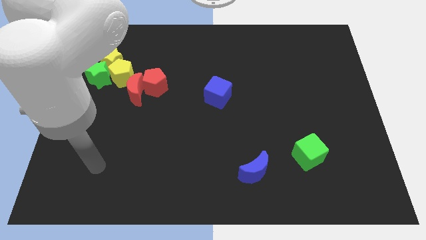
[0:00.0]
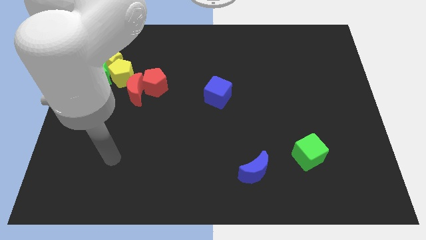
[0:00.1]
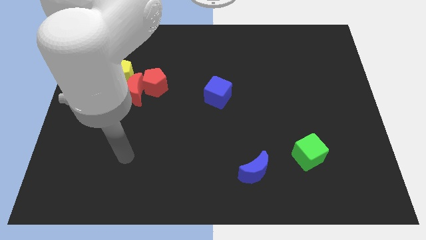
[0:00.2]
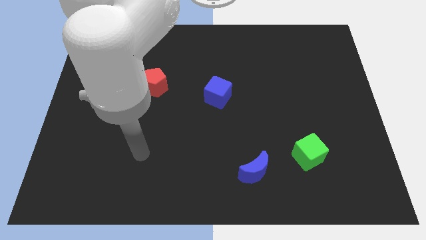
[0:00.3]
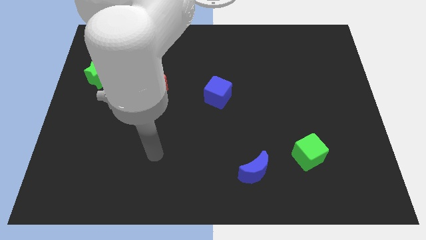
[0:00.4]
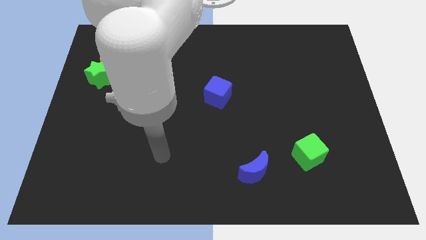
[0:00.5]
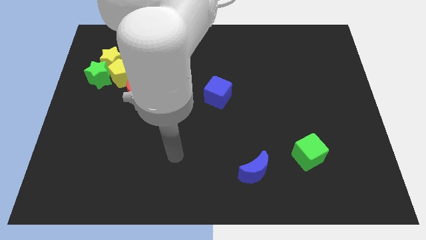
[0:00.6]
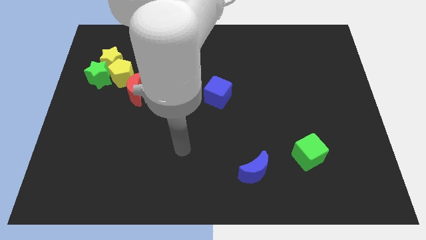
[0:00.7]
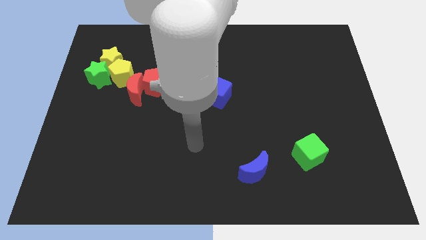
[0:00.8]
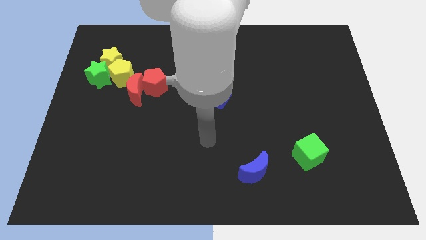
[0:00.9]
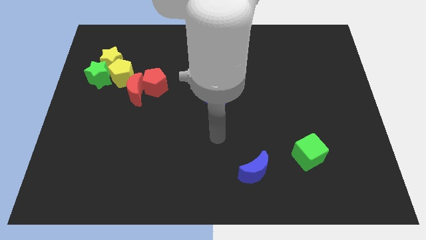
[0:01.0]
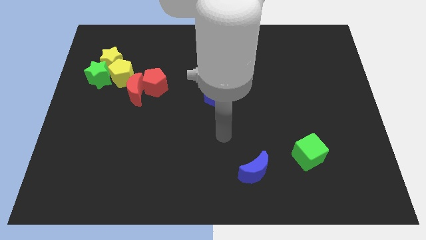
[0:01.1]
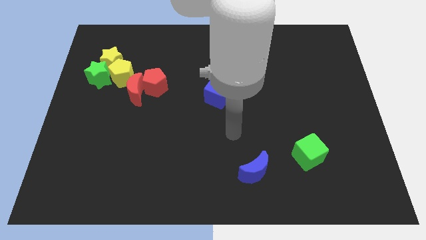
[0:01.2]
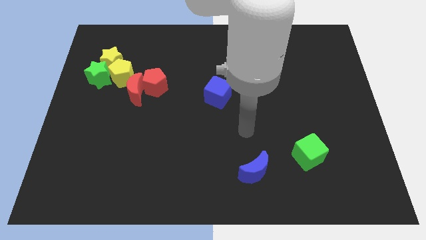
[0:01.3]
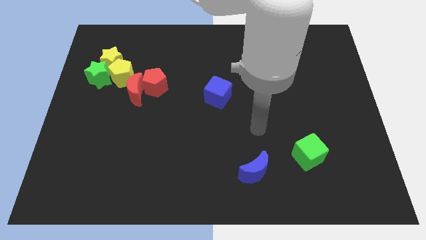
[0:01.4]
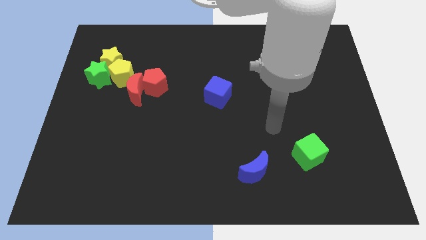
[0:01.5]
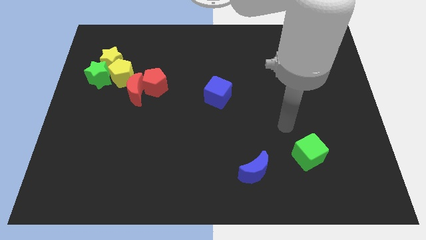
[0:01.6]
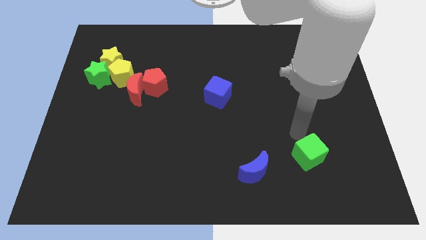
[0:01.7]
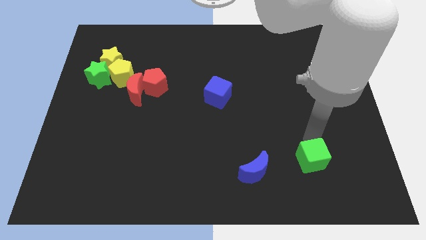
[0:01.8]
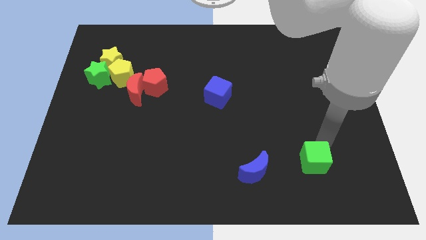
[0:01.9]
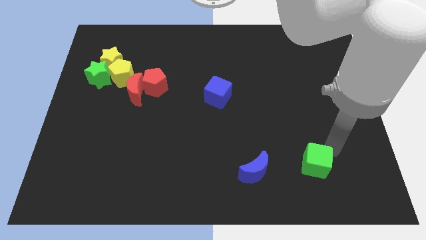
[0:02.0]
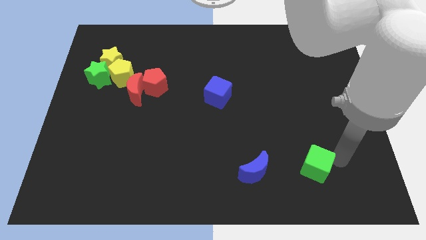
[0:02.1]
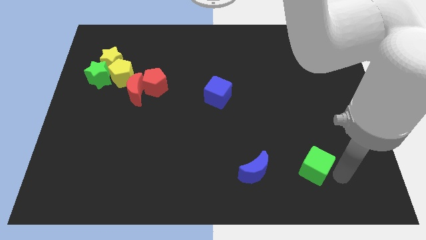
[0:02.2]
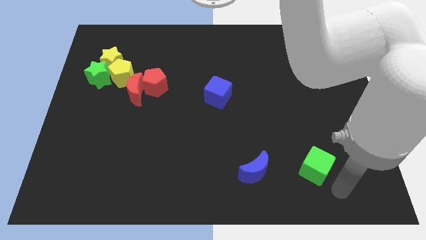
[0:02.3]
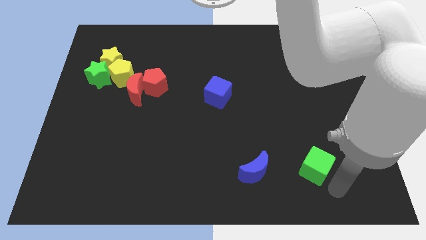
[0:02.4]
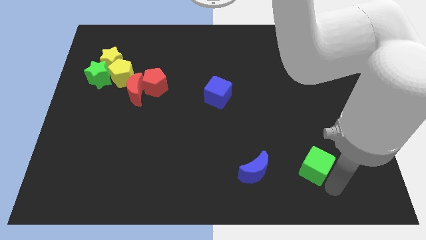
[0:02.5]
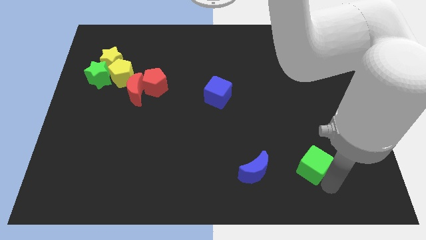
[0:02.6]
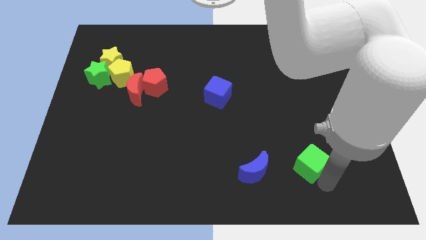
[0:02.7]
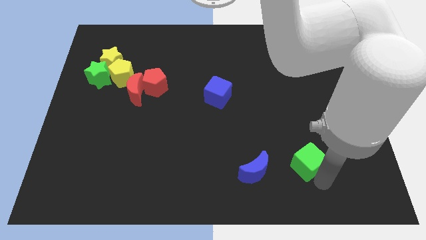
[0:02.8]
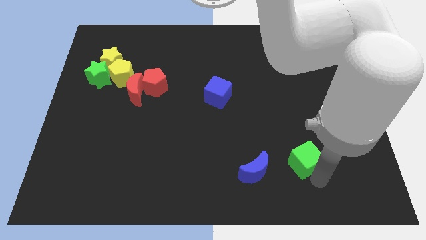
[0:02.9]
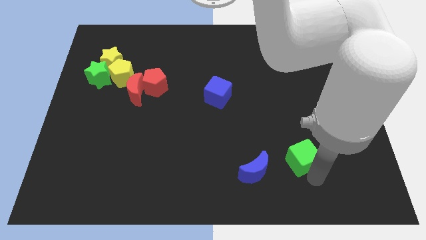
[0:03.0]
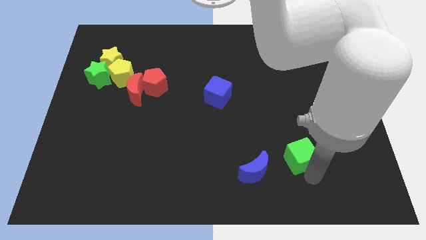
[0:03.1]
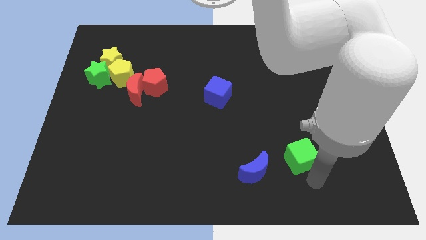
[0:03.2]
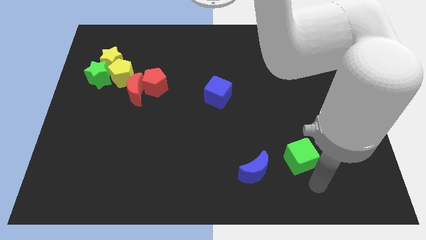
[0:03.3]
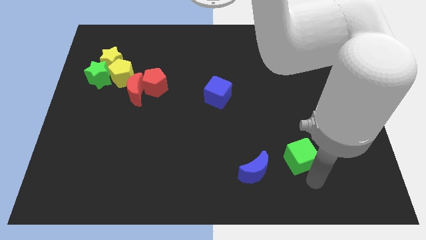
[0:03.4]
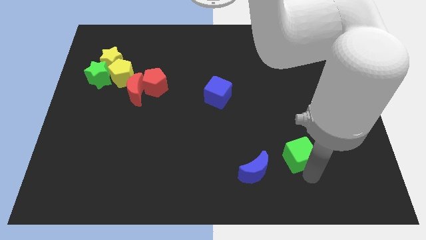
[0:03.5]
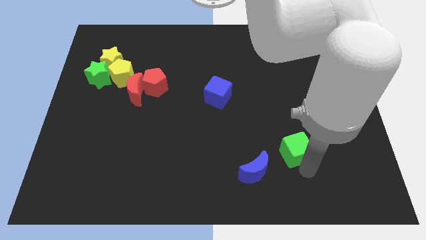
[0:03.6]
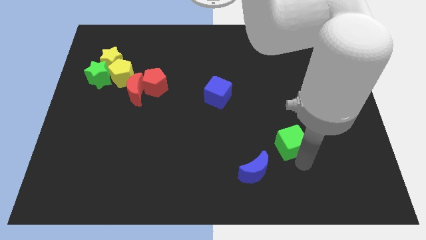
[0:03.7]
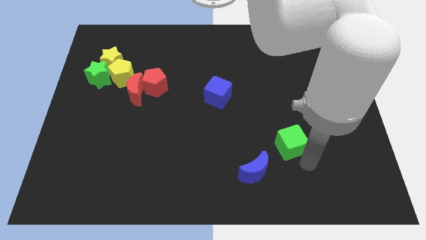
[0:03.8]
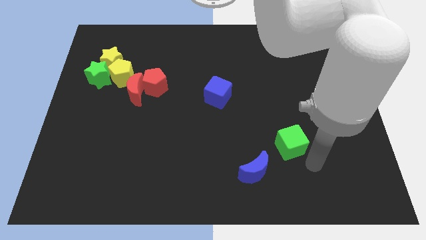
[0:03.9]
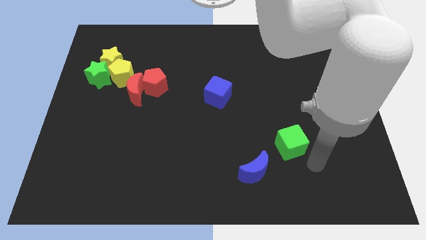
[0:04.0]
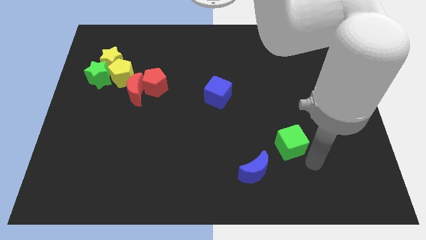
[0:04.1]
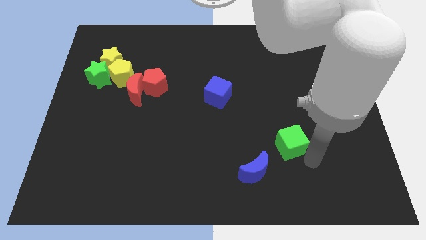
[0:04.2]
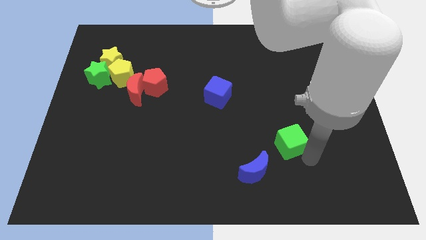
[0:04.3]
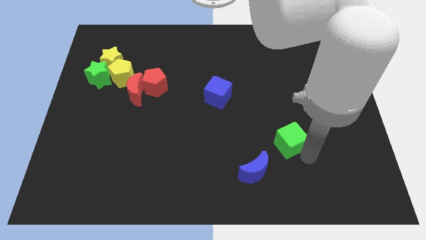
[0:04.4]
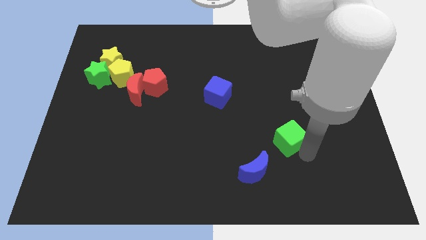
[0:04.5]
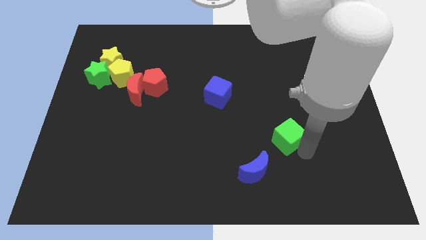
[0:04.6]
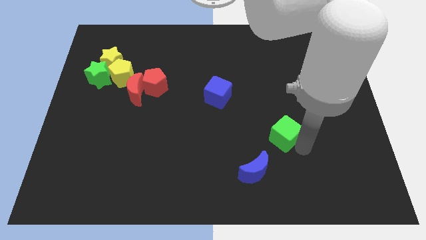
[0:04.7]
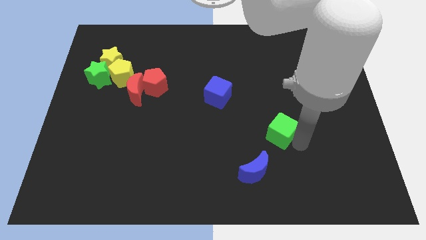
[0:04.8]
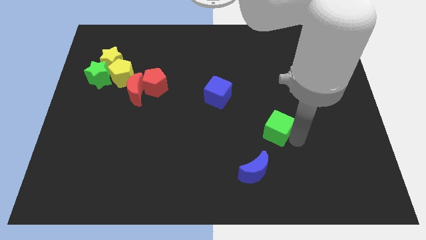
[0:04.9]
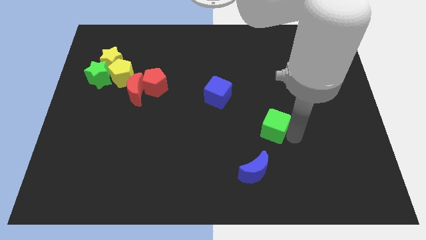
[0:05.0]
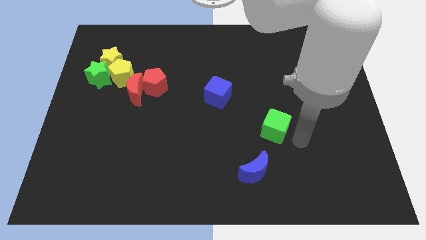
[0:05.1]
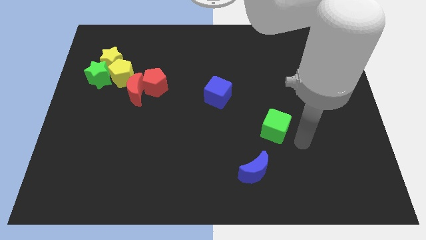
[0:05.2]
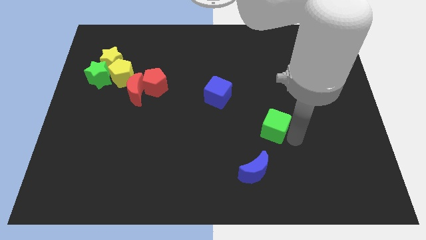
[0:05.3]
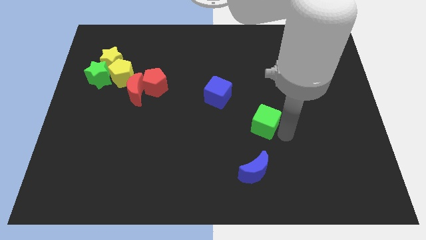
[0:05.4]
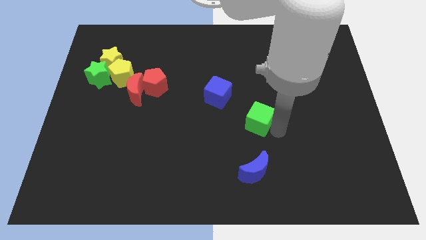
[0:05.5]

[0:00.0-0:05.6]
move the green cube to the bottom right of the blue cube

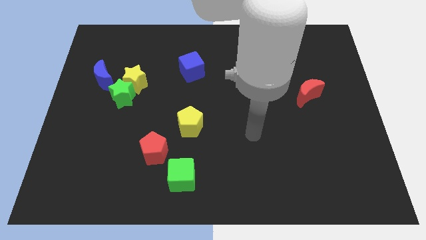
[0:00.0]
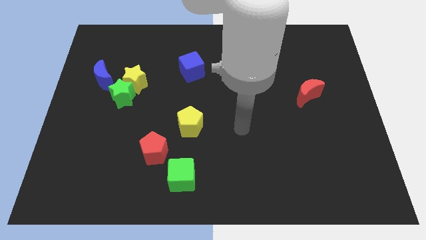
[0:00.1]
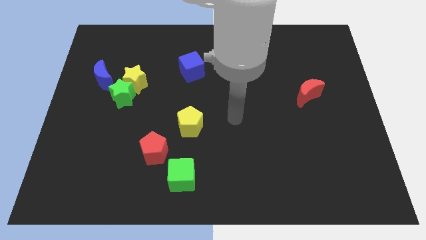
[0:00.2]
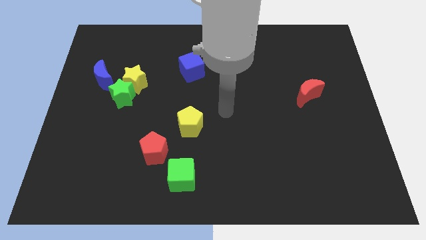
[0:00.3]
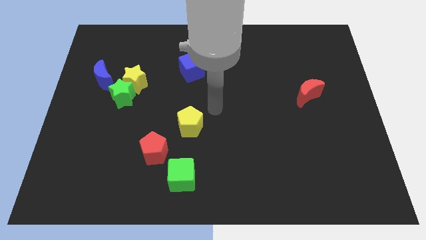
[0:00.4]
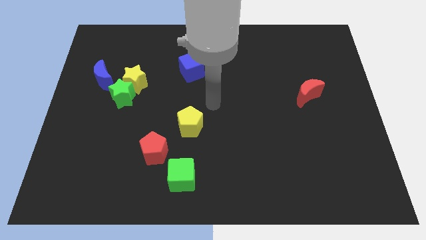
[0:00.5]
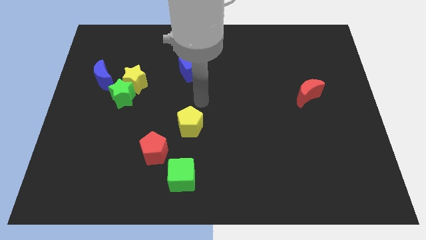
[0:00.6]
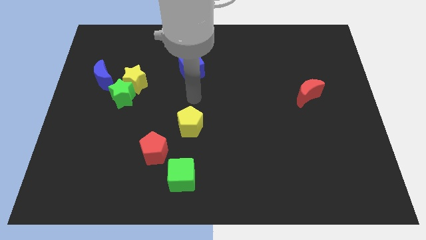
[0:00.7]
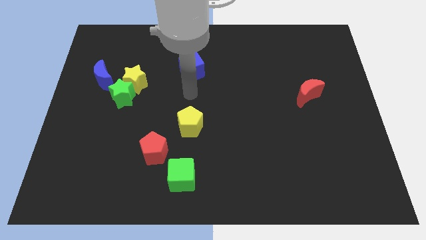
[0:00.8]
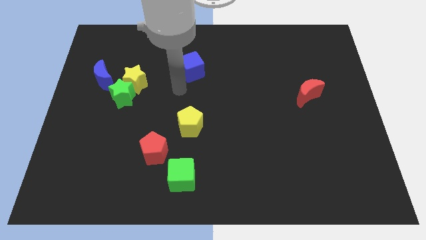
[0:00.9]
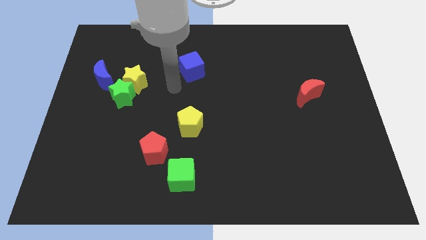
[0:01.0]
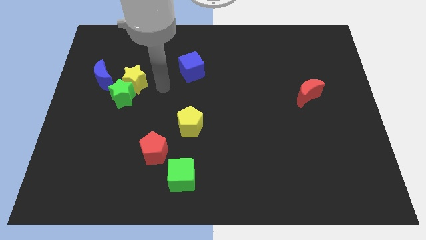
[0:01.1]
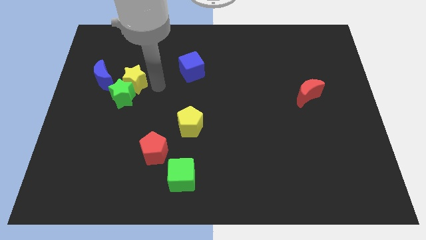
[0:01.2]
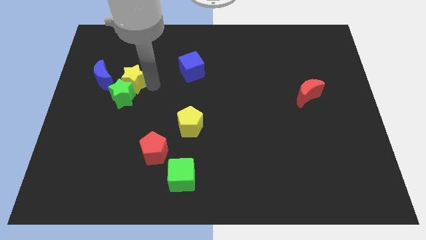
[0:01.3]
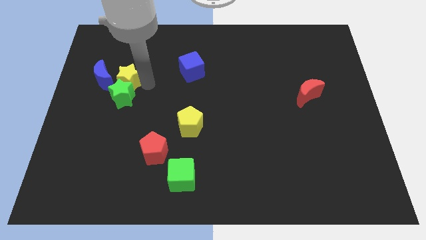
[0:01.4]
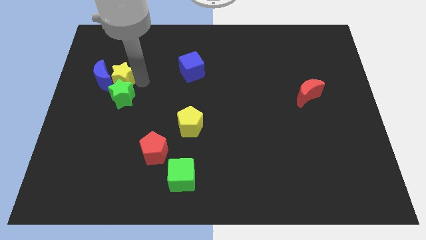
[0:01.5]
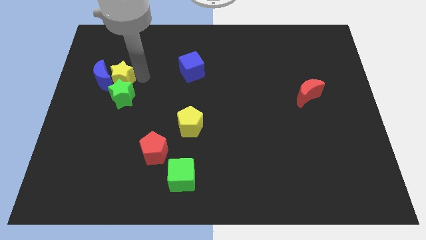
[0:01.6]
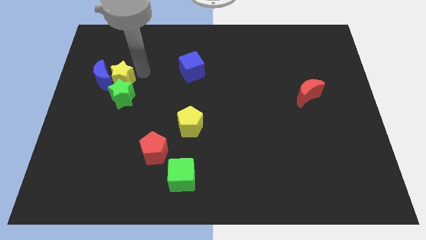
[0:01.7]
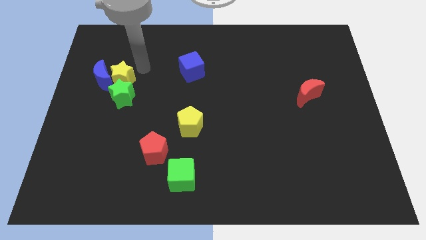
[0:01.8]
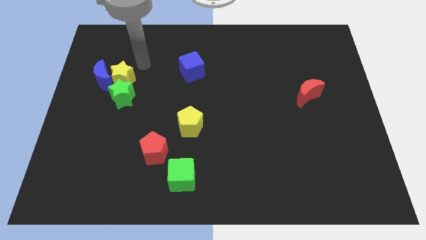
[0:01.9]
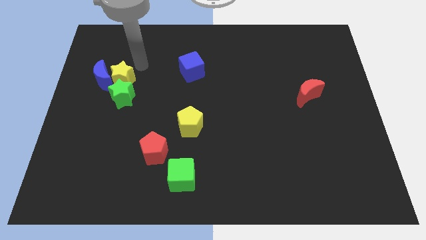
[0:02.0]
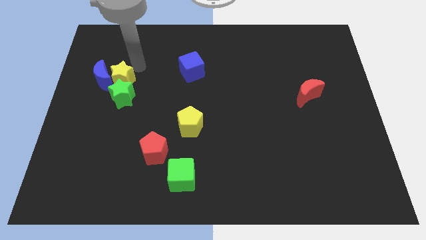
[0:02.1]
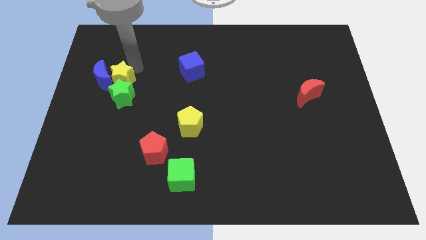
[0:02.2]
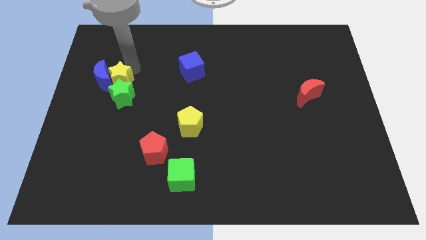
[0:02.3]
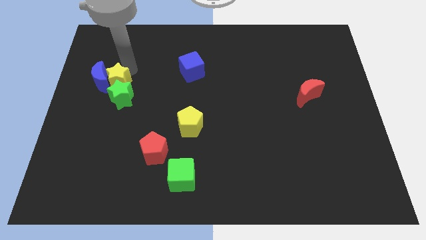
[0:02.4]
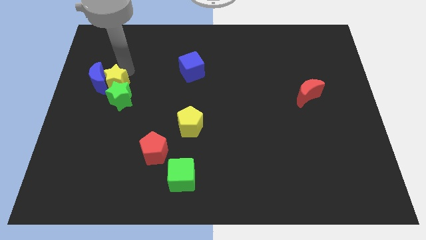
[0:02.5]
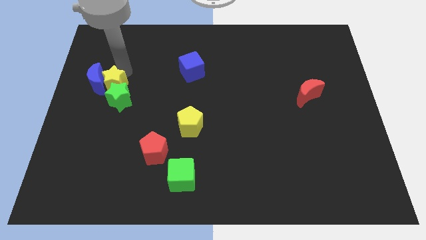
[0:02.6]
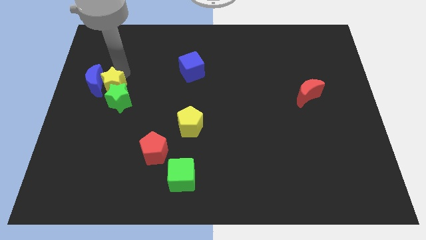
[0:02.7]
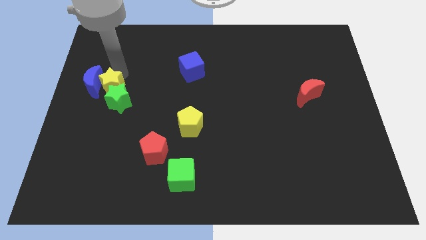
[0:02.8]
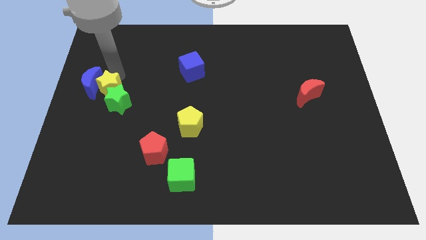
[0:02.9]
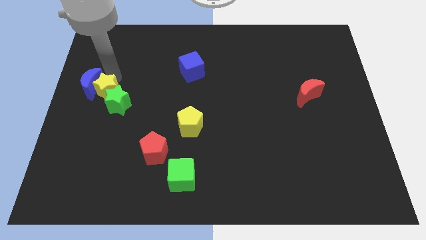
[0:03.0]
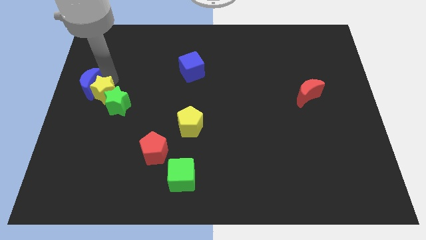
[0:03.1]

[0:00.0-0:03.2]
push the yellow star below the blue moon
